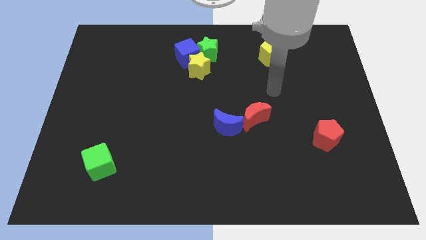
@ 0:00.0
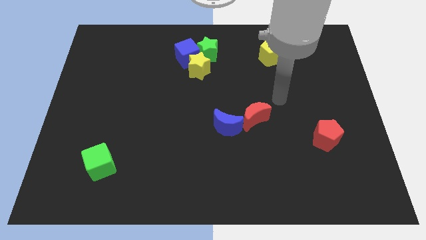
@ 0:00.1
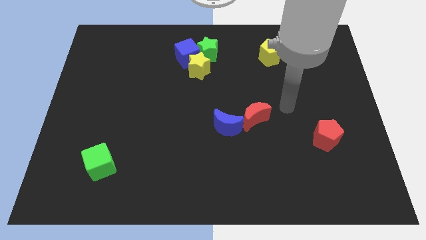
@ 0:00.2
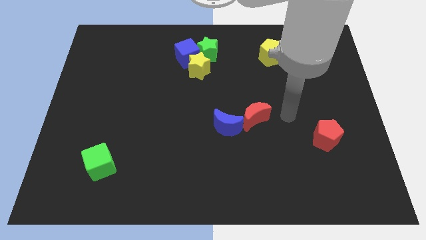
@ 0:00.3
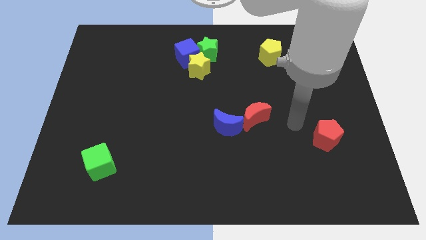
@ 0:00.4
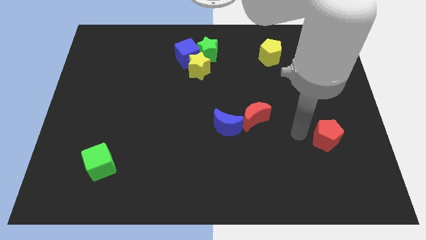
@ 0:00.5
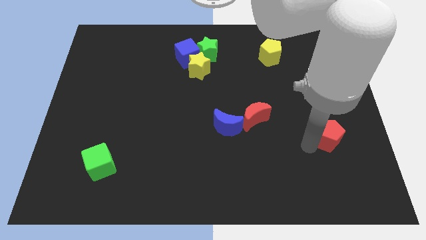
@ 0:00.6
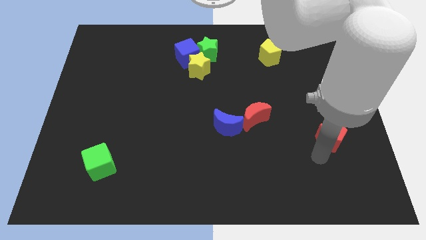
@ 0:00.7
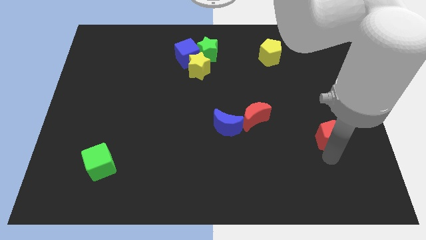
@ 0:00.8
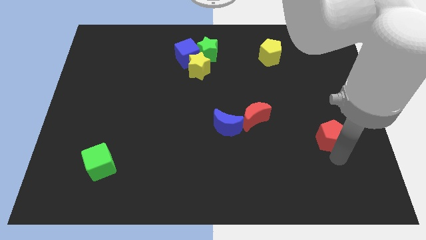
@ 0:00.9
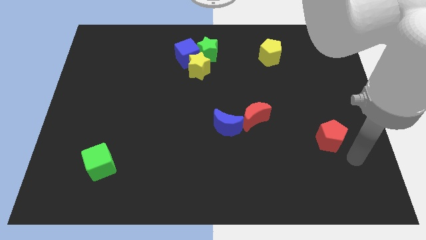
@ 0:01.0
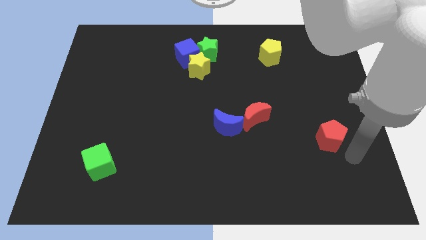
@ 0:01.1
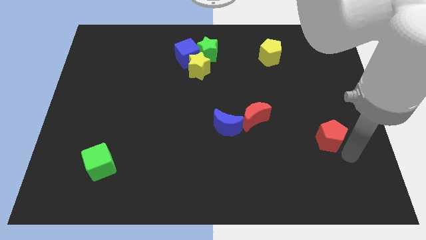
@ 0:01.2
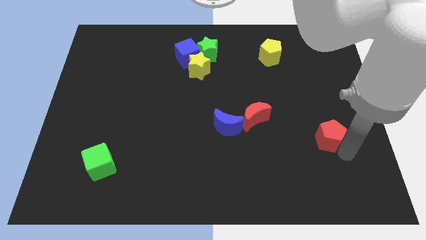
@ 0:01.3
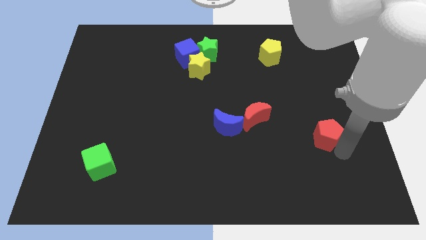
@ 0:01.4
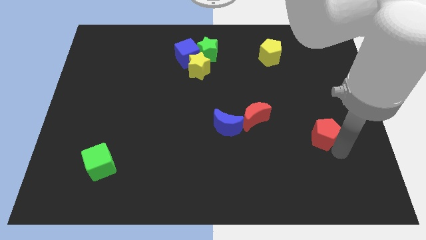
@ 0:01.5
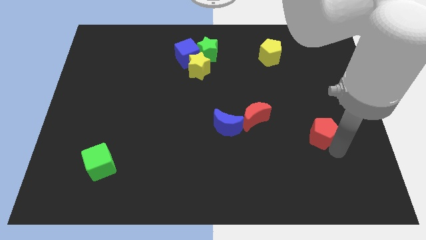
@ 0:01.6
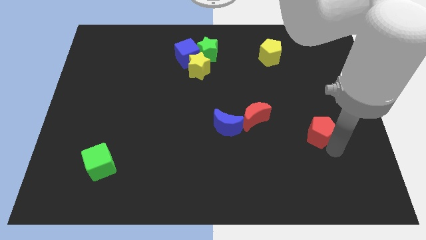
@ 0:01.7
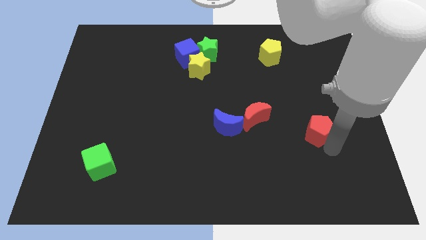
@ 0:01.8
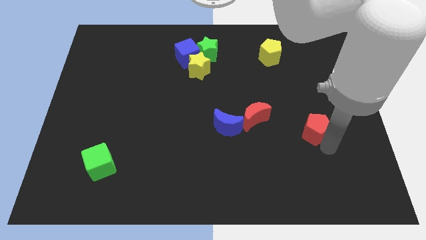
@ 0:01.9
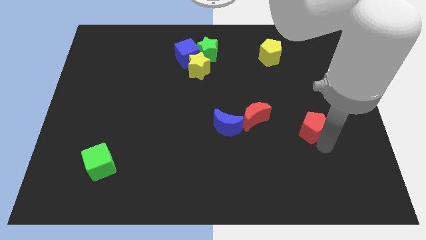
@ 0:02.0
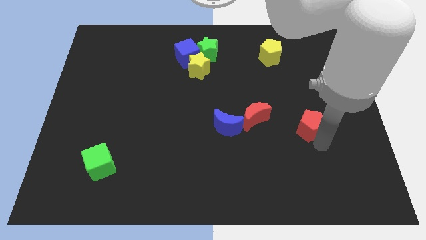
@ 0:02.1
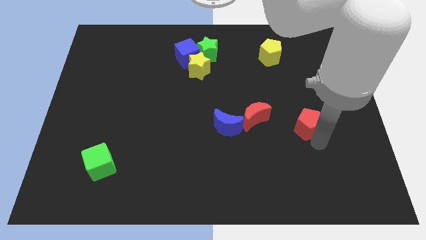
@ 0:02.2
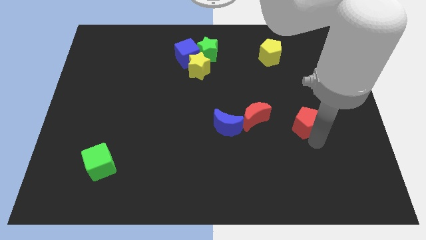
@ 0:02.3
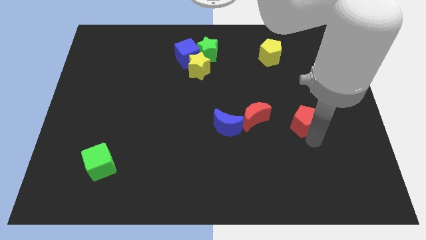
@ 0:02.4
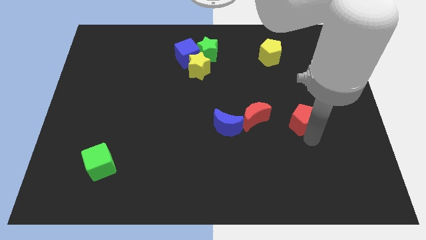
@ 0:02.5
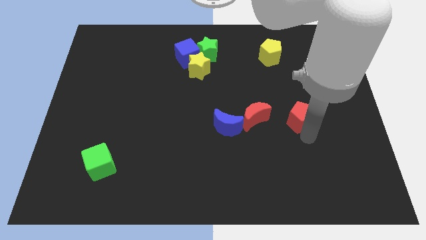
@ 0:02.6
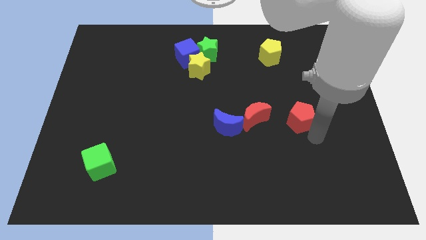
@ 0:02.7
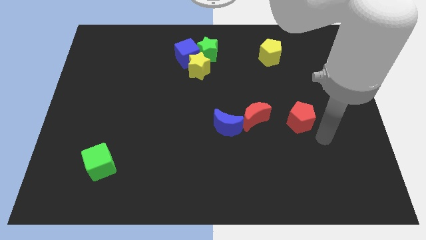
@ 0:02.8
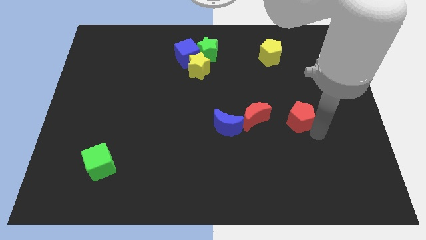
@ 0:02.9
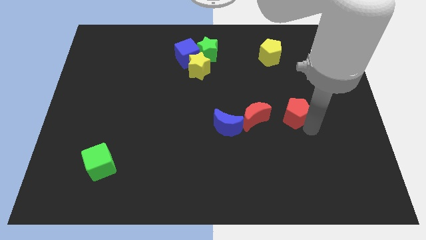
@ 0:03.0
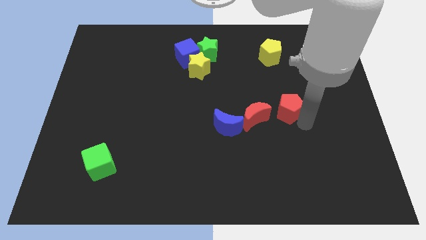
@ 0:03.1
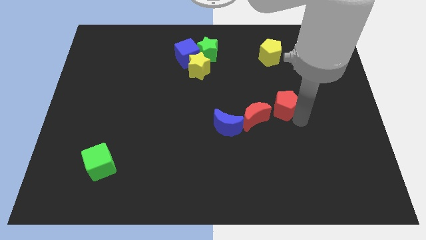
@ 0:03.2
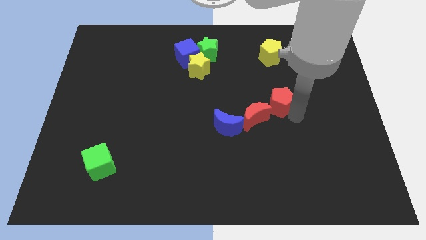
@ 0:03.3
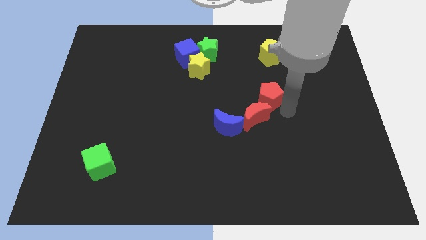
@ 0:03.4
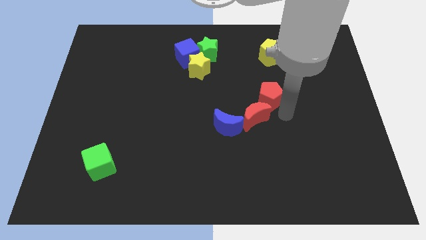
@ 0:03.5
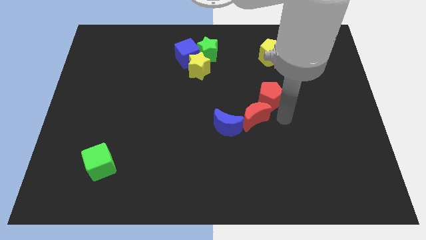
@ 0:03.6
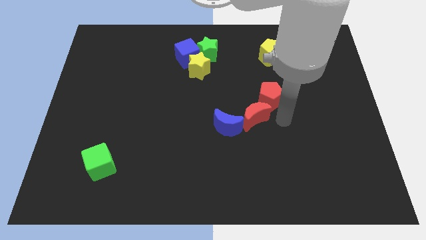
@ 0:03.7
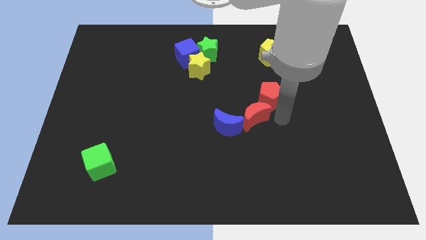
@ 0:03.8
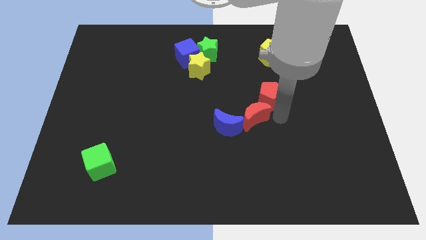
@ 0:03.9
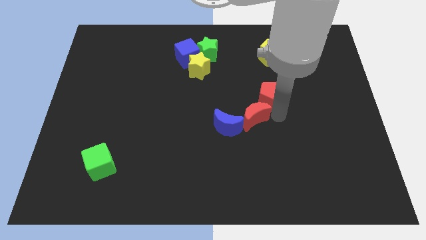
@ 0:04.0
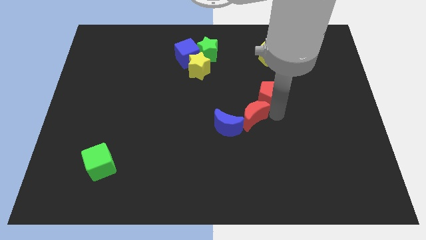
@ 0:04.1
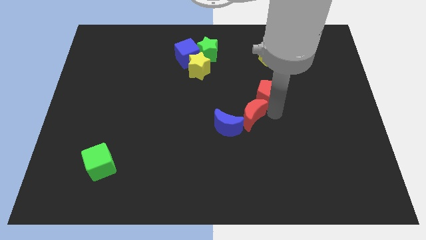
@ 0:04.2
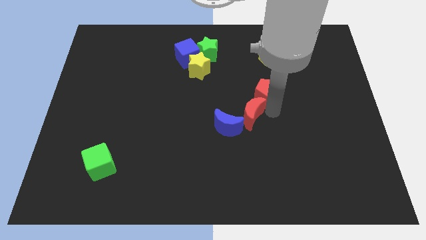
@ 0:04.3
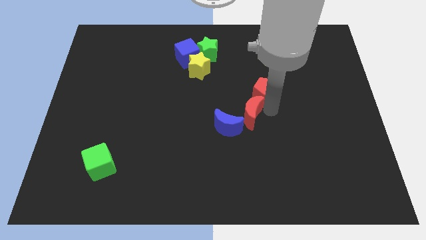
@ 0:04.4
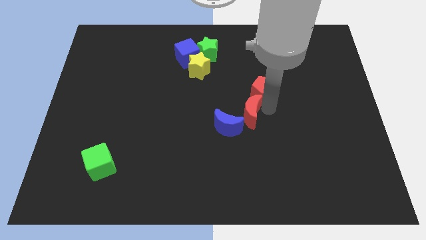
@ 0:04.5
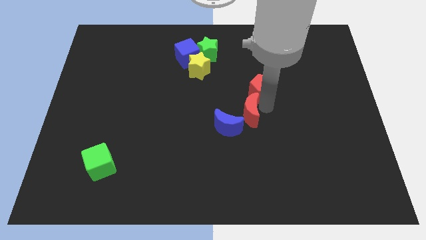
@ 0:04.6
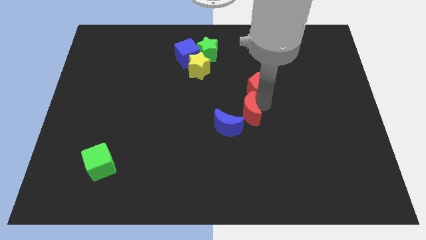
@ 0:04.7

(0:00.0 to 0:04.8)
slide the red pentagon up and left diagonally

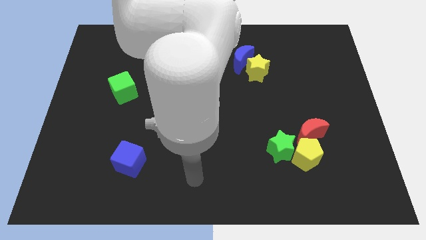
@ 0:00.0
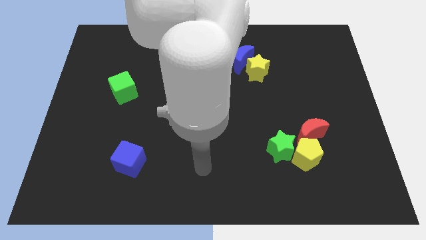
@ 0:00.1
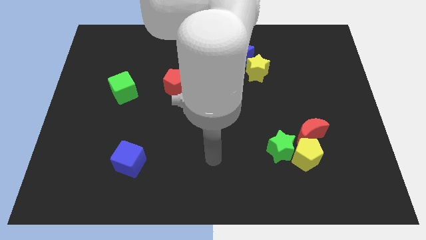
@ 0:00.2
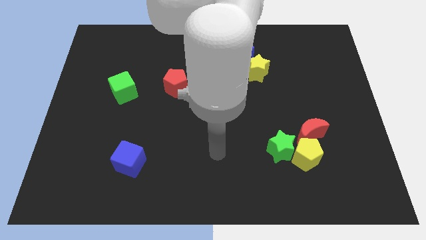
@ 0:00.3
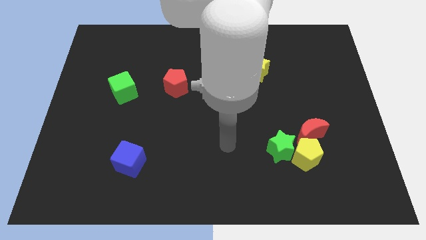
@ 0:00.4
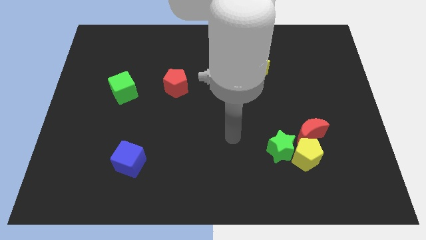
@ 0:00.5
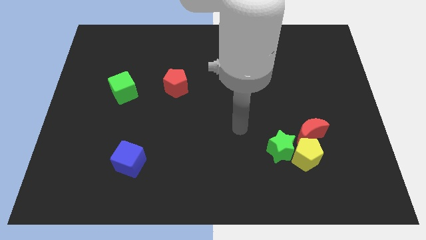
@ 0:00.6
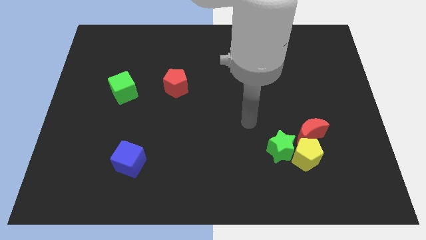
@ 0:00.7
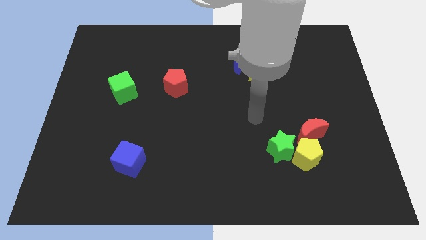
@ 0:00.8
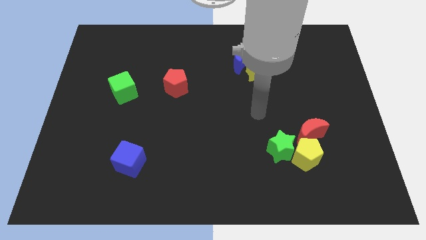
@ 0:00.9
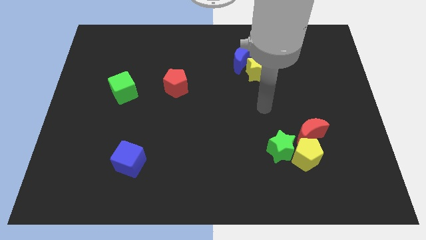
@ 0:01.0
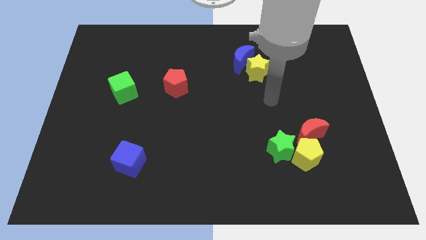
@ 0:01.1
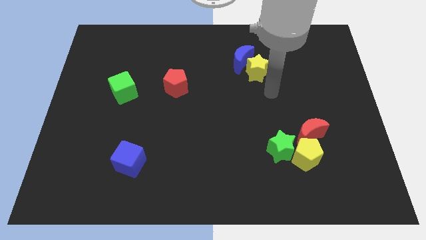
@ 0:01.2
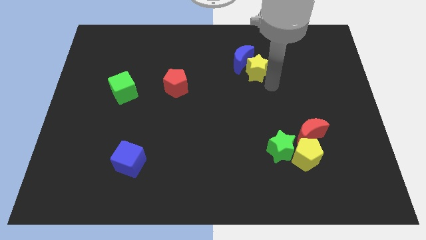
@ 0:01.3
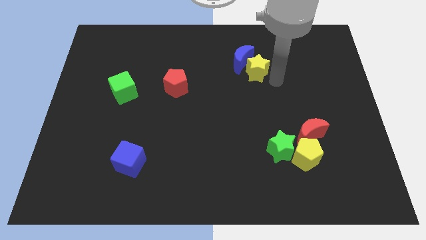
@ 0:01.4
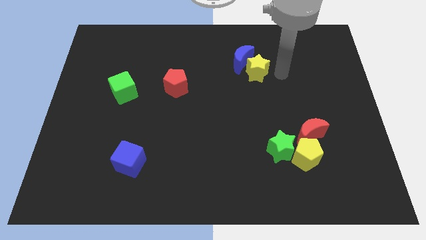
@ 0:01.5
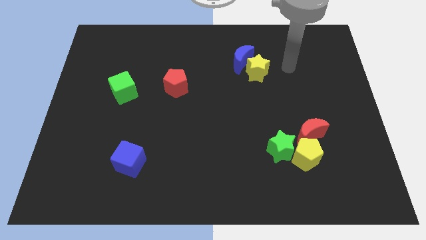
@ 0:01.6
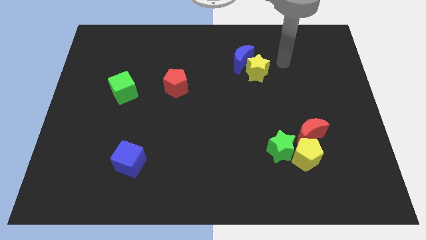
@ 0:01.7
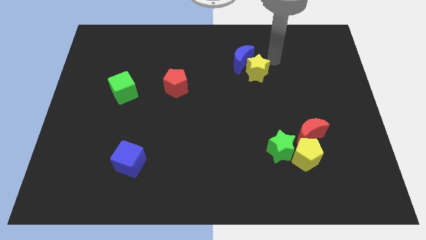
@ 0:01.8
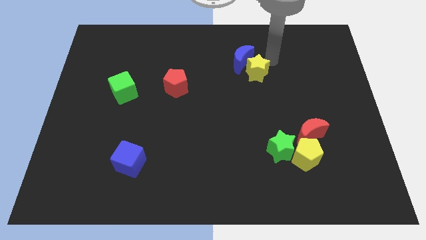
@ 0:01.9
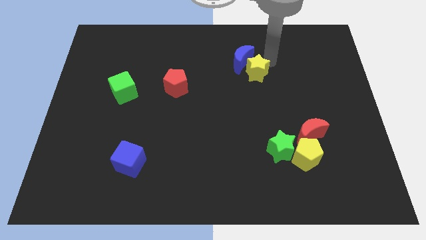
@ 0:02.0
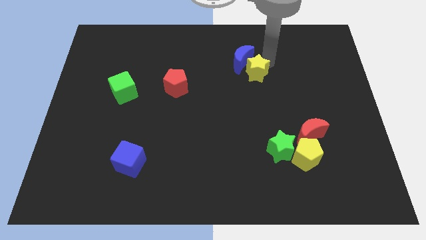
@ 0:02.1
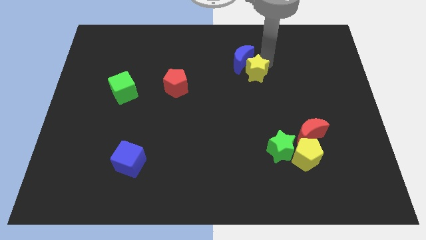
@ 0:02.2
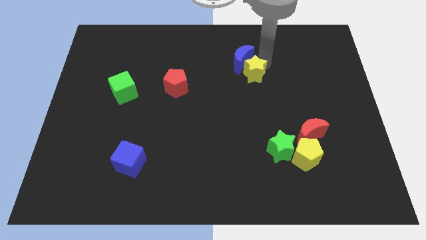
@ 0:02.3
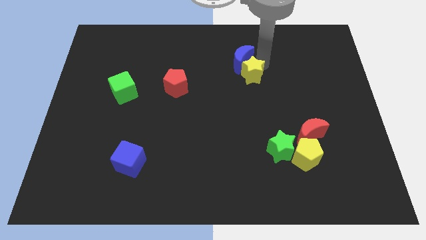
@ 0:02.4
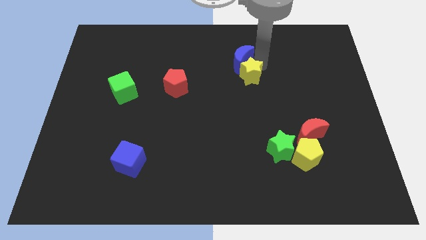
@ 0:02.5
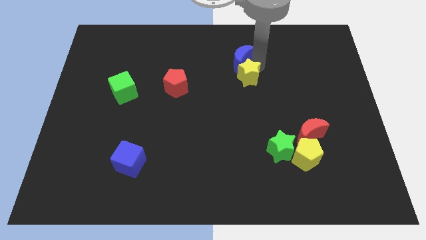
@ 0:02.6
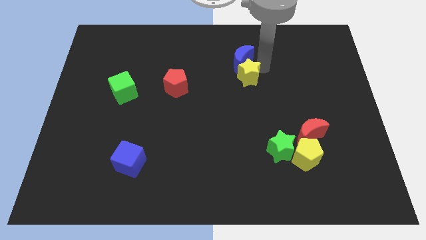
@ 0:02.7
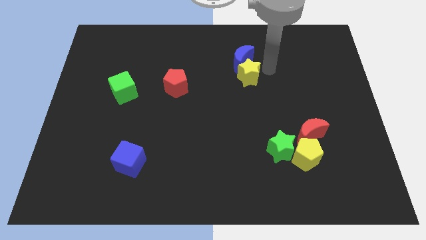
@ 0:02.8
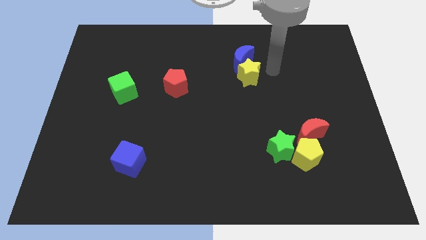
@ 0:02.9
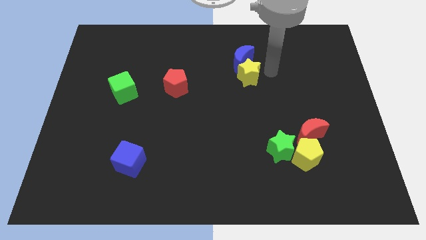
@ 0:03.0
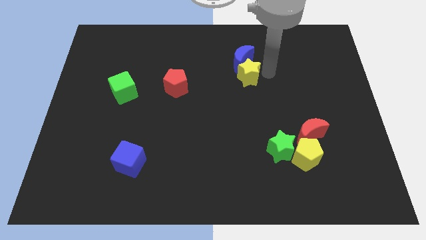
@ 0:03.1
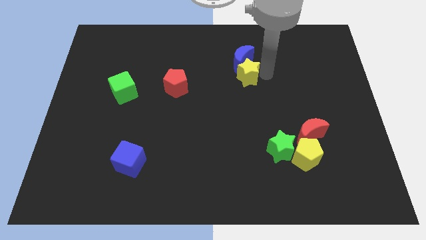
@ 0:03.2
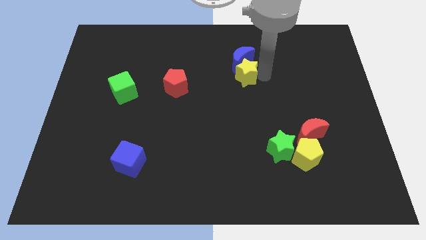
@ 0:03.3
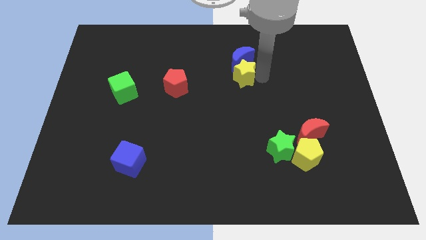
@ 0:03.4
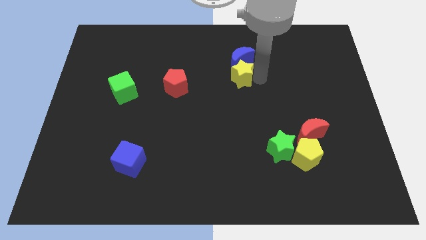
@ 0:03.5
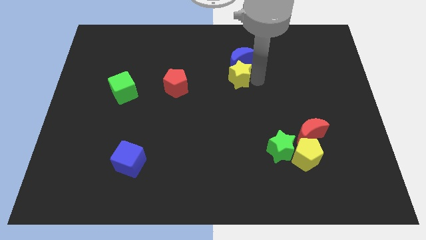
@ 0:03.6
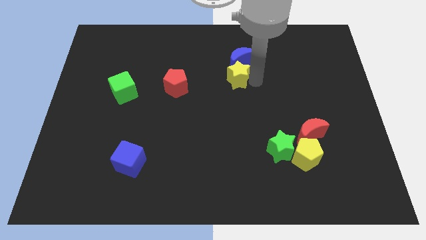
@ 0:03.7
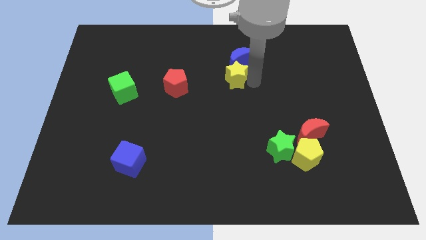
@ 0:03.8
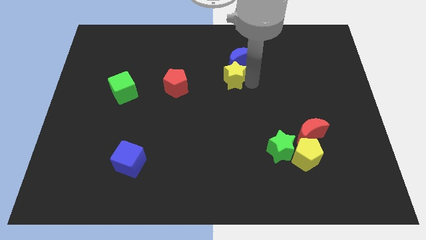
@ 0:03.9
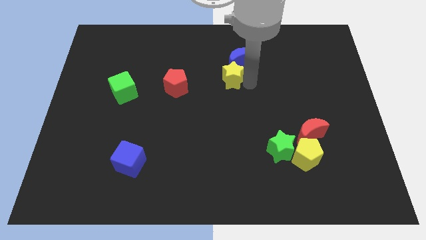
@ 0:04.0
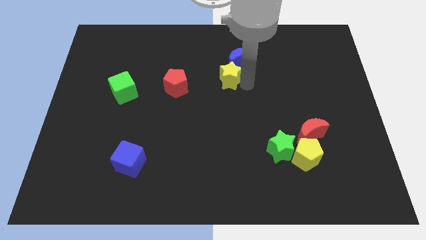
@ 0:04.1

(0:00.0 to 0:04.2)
slide the yellow star to the left a bit
